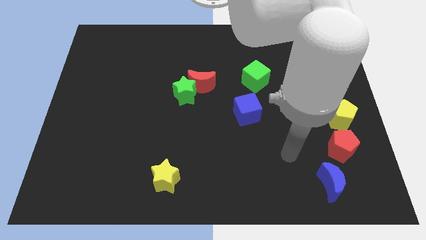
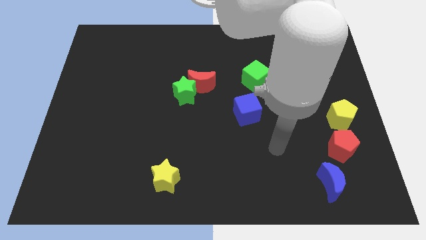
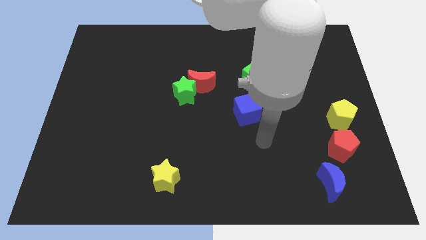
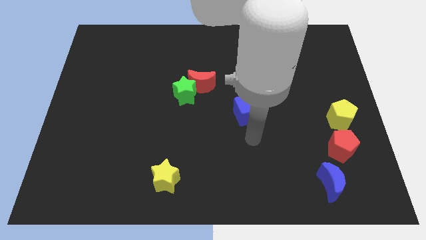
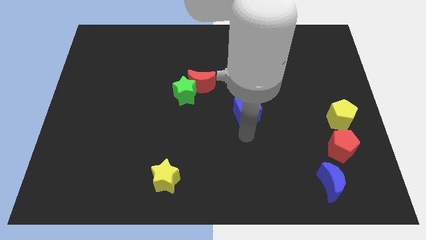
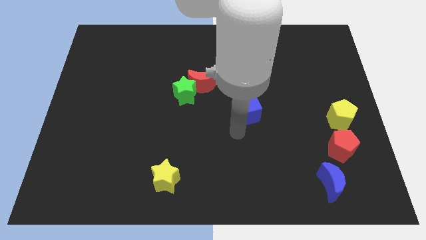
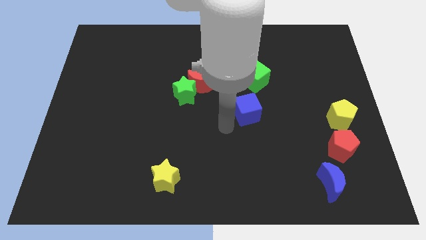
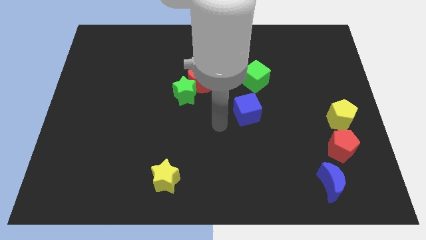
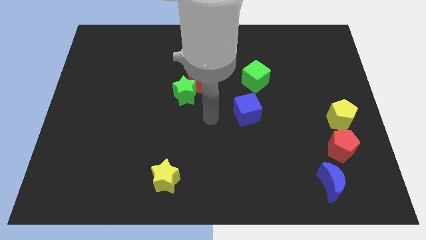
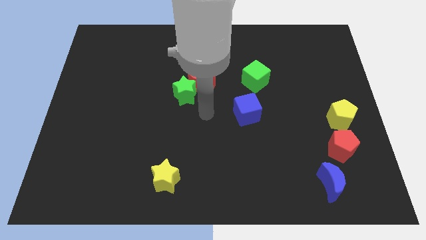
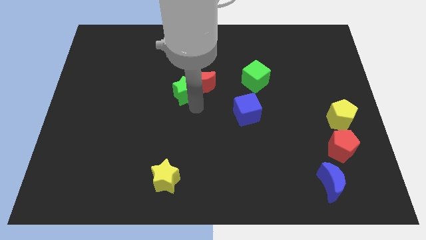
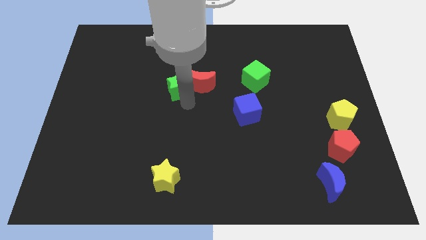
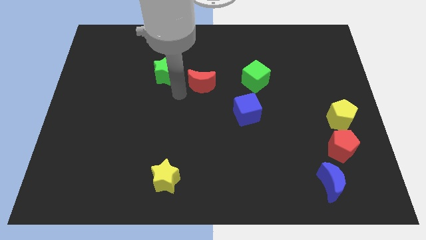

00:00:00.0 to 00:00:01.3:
move the red moon away from the green star

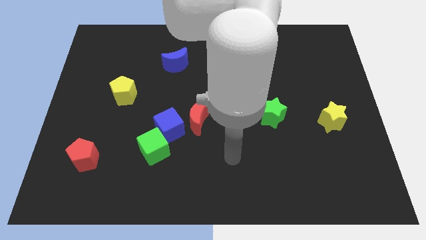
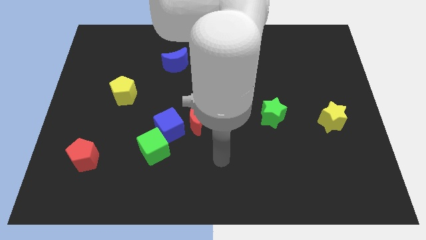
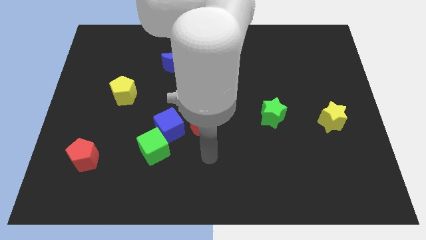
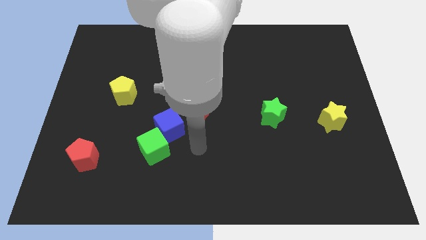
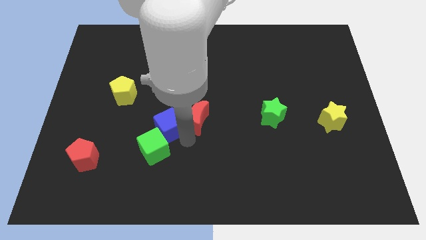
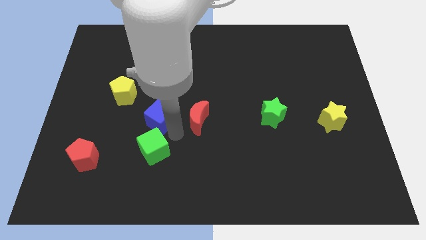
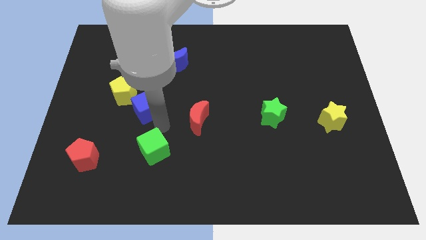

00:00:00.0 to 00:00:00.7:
move the green cube away from the blue cube

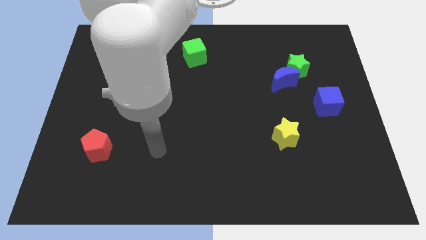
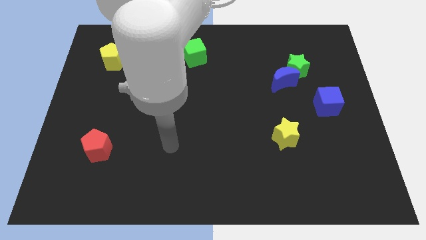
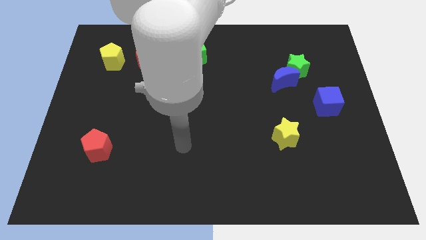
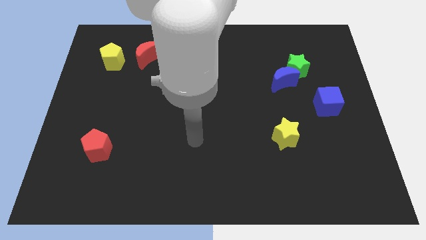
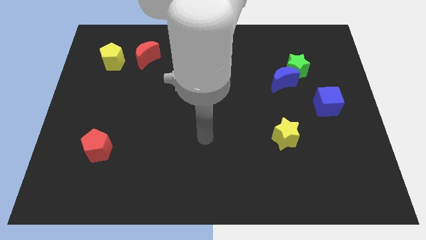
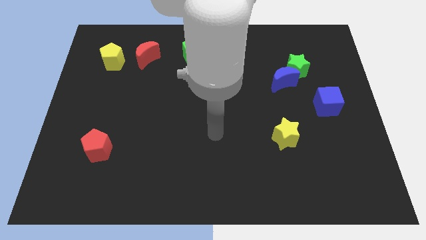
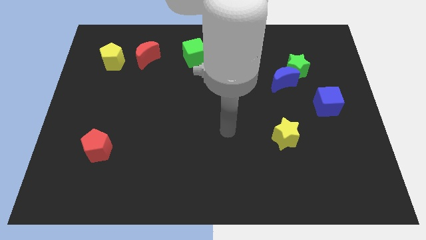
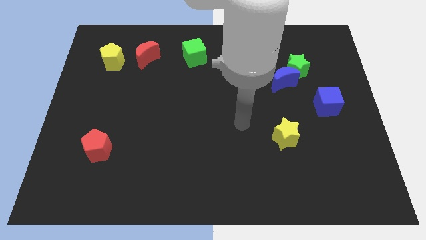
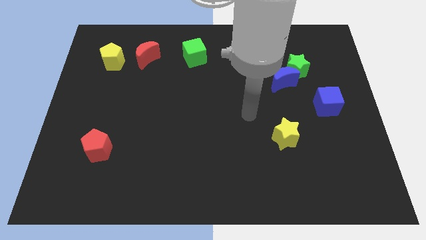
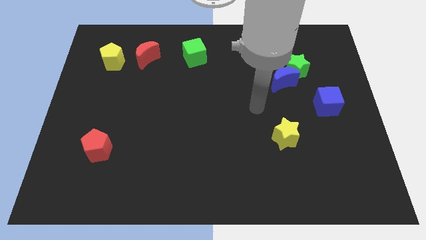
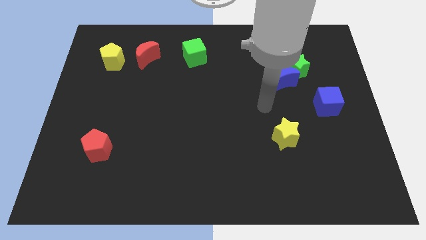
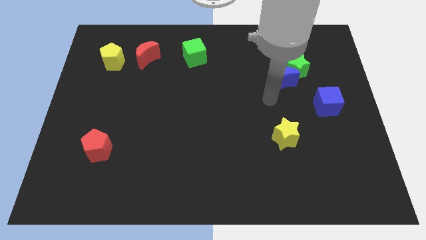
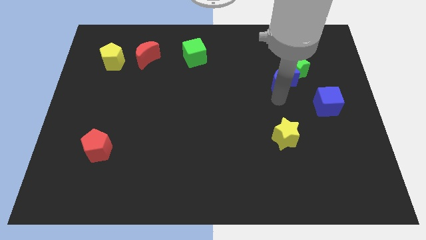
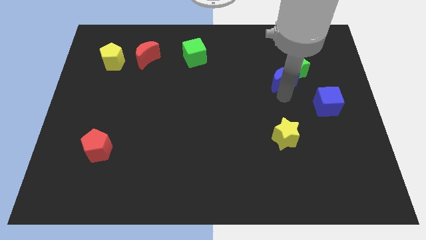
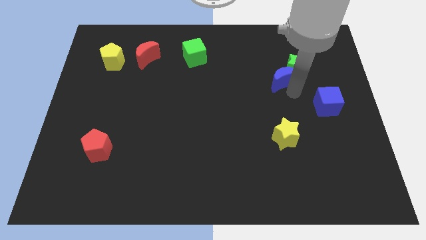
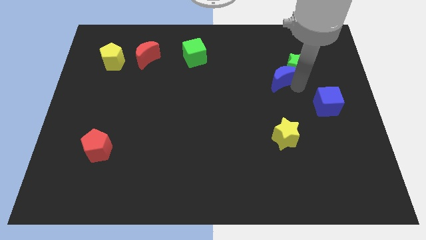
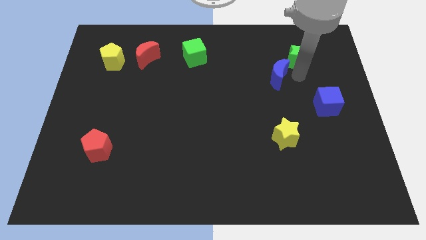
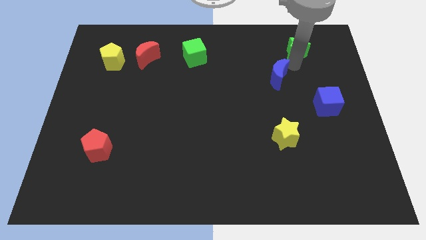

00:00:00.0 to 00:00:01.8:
pull the blue moon apart from the green star

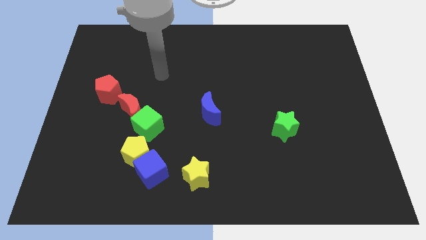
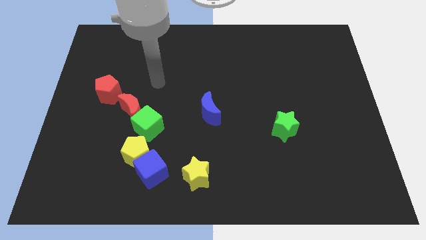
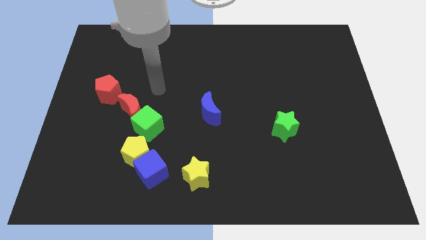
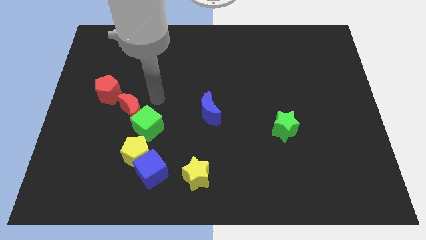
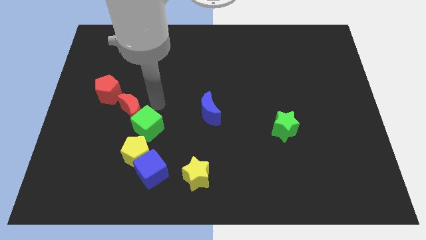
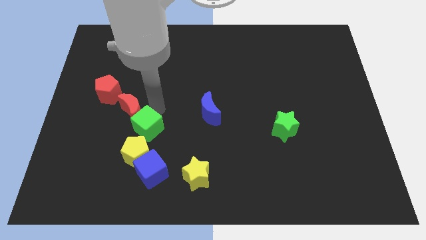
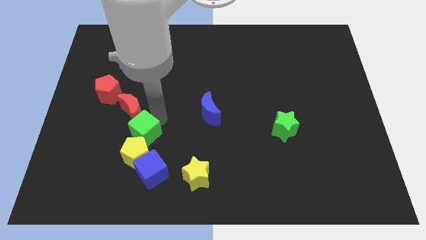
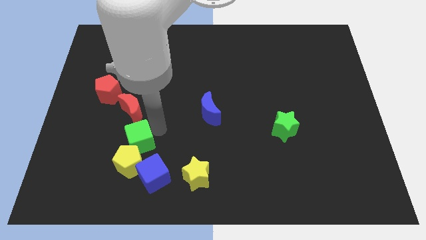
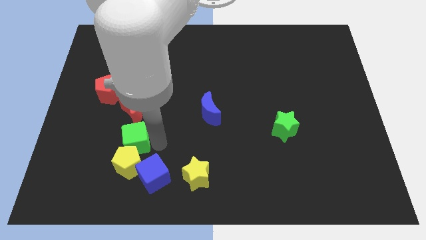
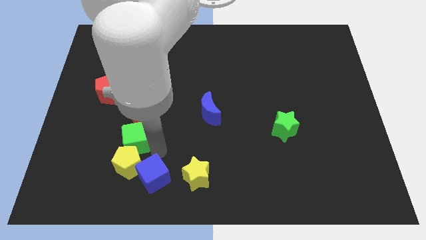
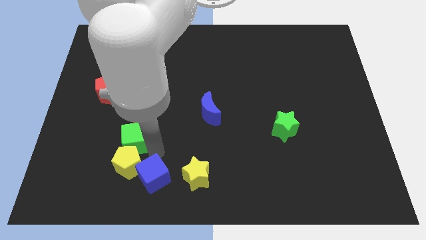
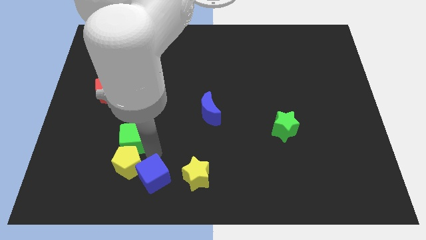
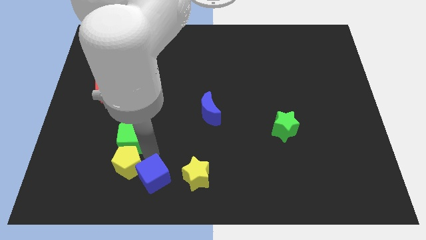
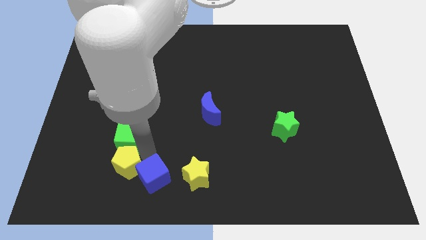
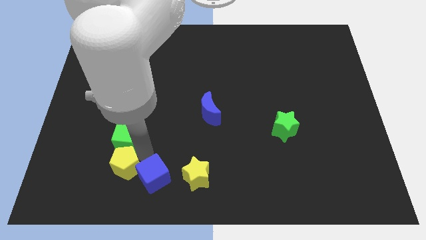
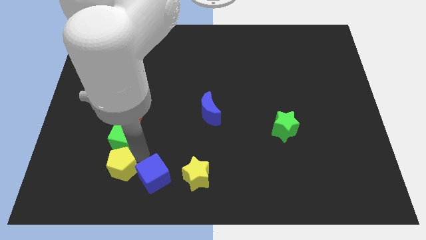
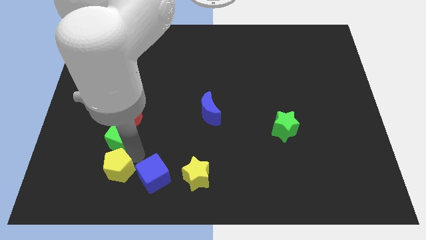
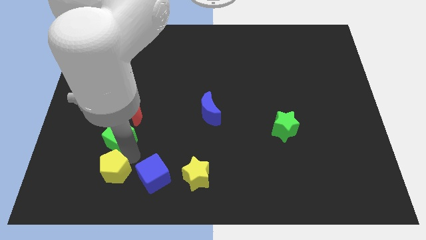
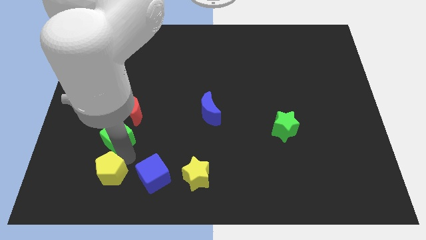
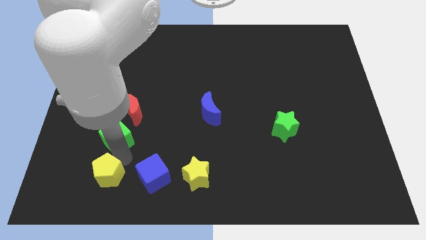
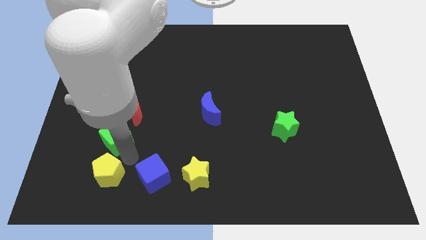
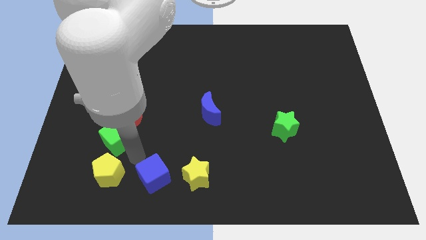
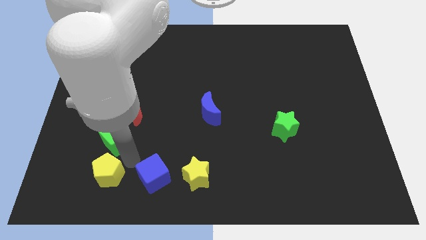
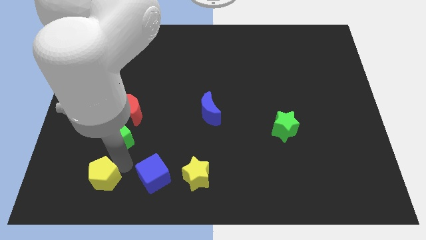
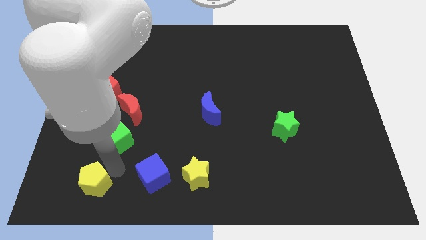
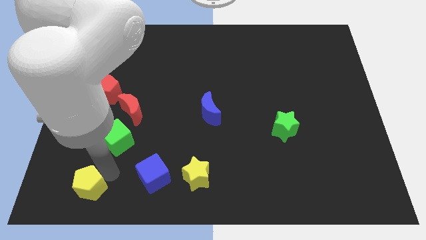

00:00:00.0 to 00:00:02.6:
separate the yellow pentagon from the blue cube and green cube

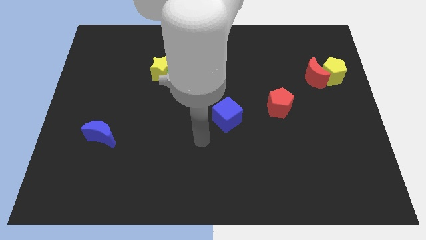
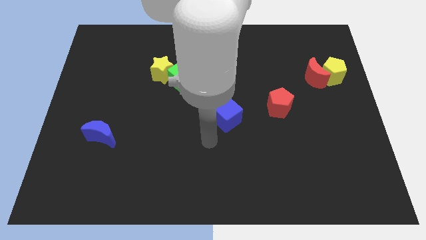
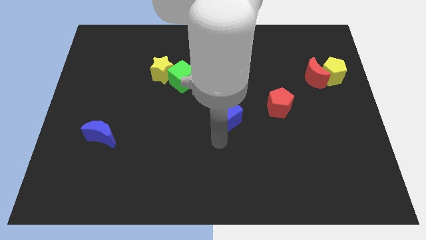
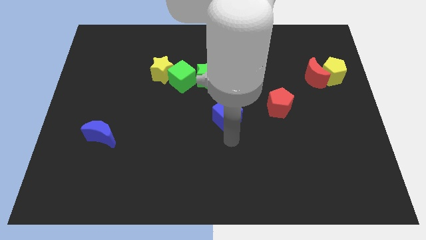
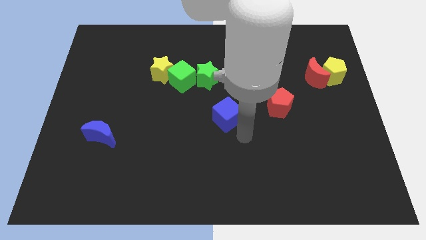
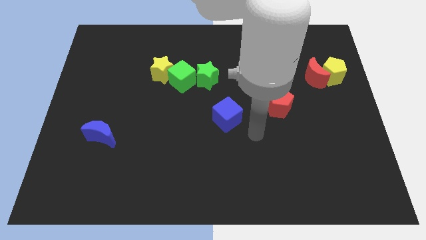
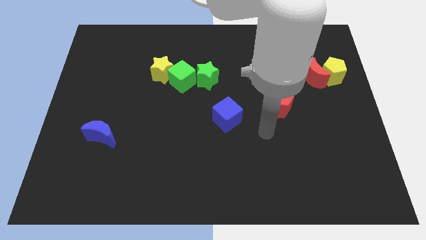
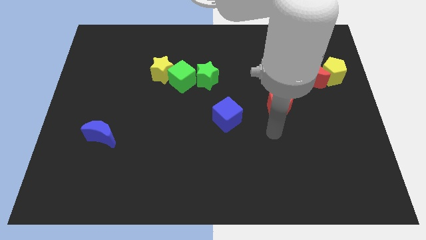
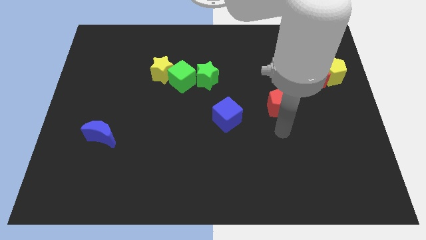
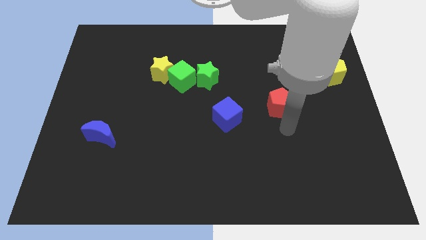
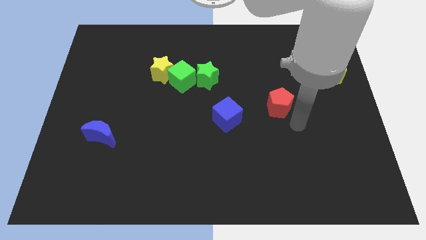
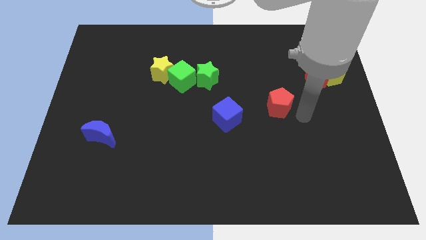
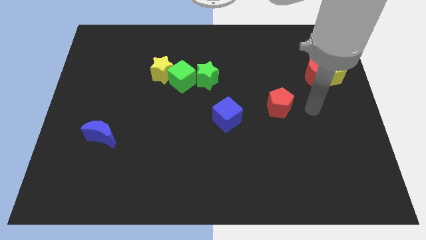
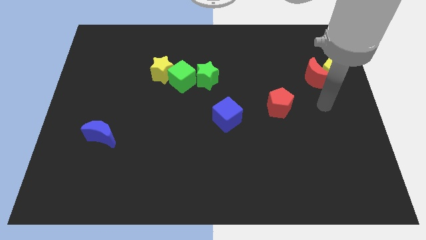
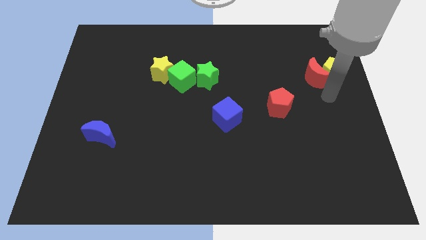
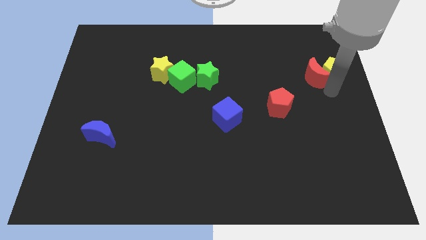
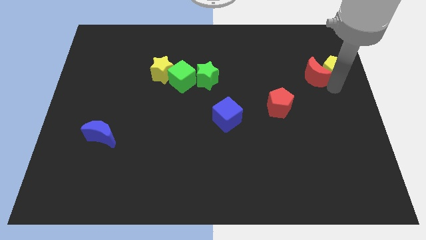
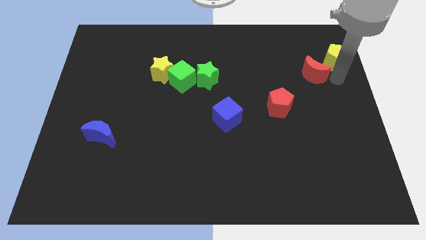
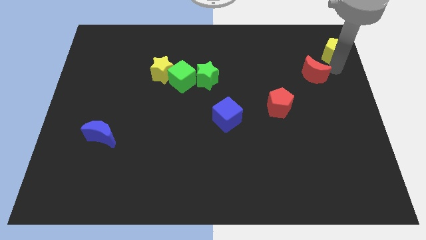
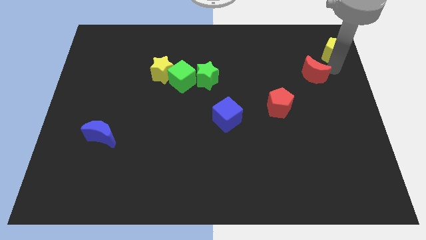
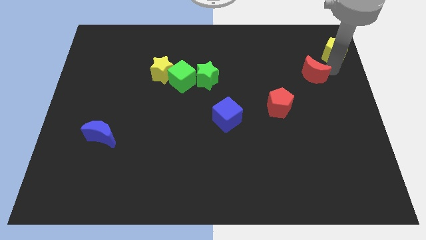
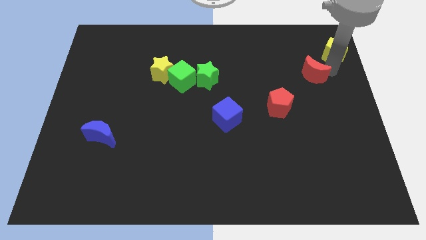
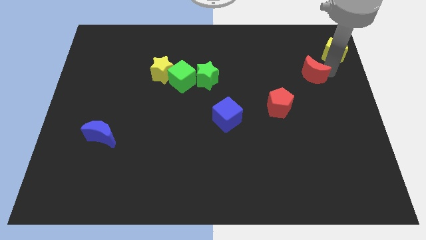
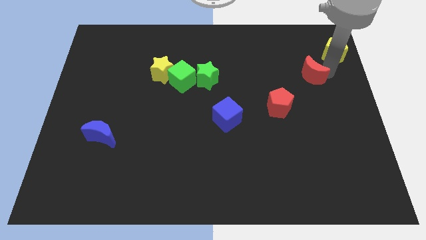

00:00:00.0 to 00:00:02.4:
separate the red moon from the yellow pentagon

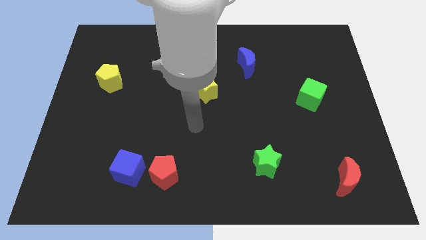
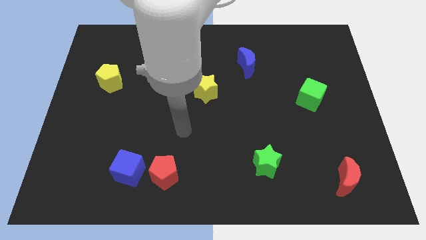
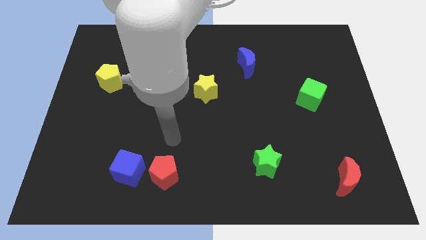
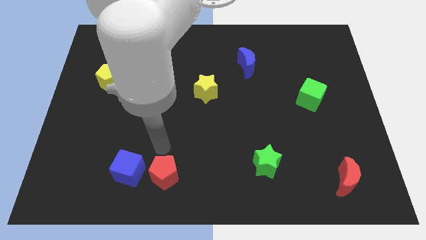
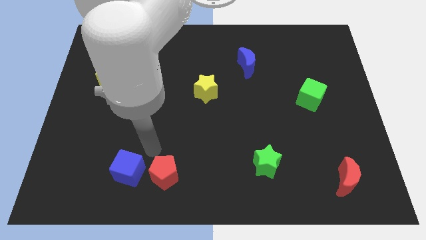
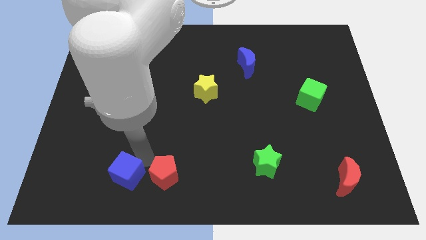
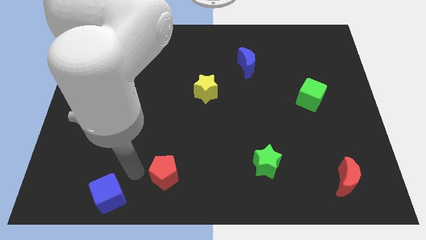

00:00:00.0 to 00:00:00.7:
move the red pentagon away from the blue cube
